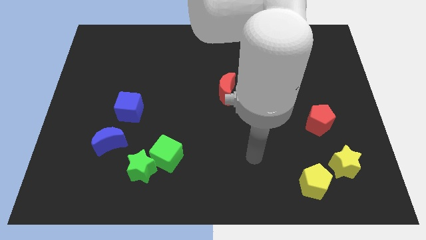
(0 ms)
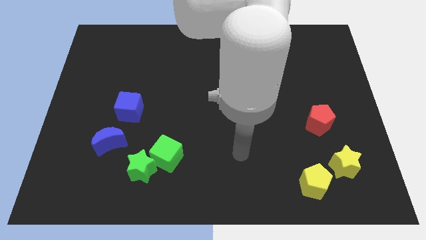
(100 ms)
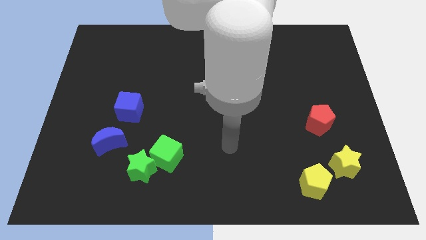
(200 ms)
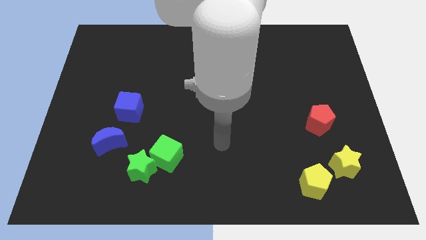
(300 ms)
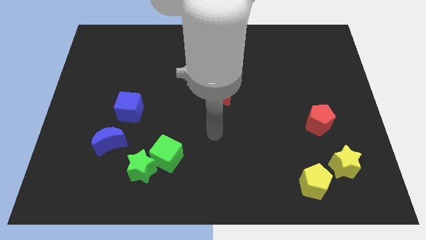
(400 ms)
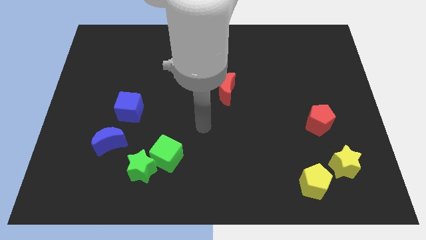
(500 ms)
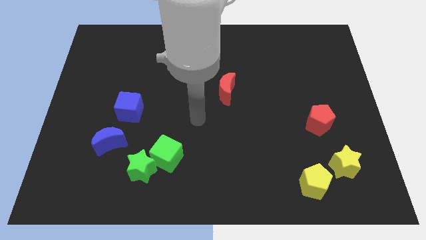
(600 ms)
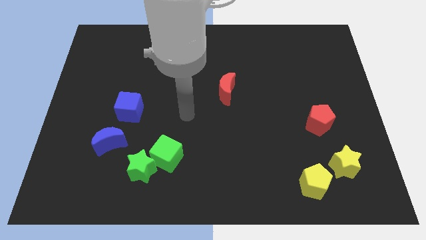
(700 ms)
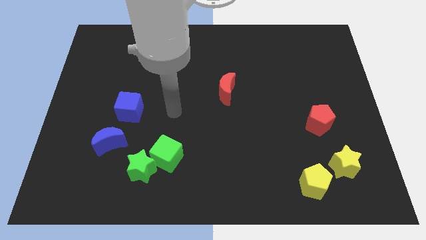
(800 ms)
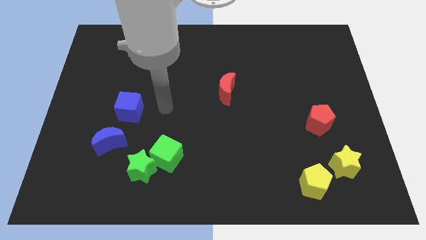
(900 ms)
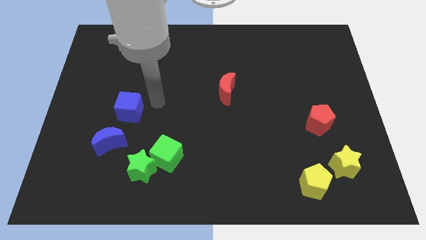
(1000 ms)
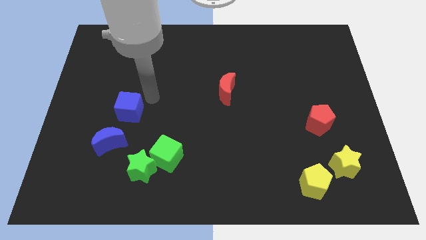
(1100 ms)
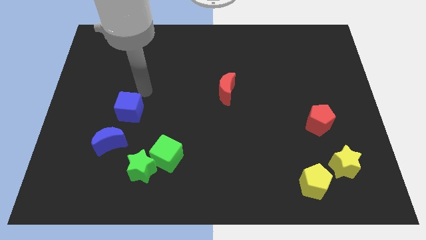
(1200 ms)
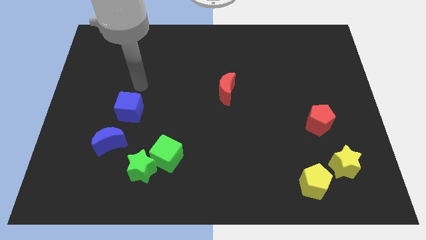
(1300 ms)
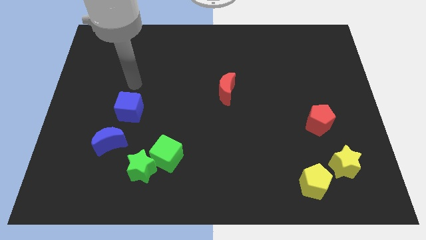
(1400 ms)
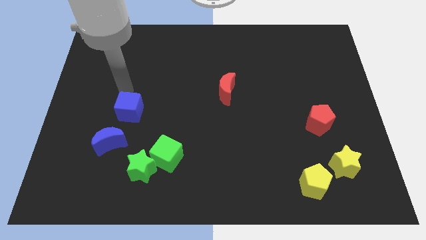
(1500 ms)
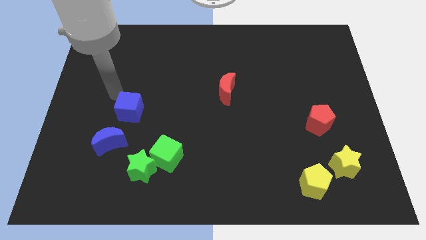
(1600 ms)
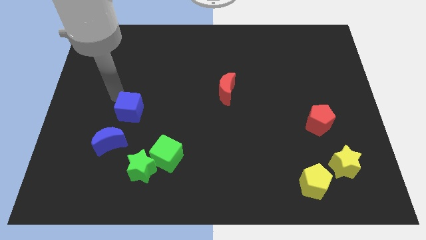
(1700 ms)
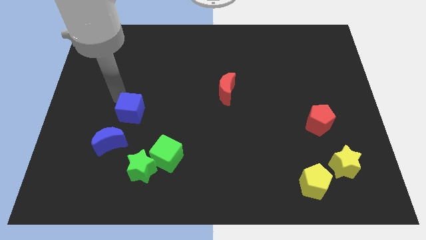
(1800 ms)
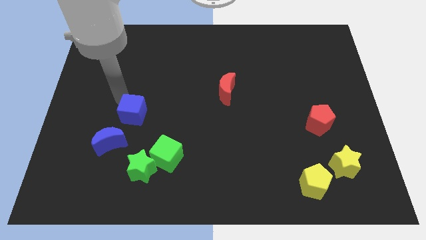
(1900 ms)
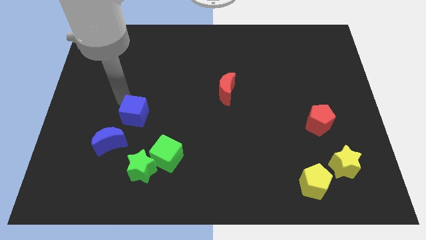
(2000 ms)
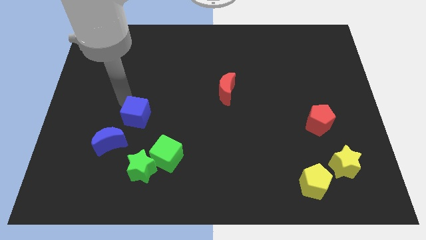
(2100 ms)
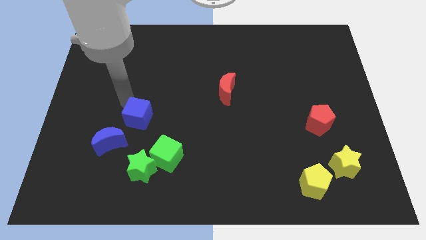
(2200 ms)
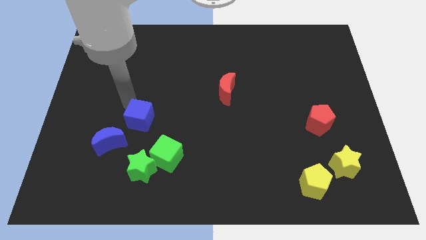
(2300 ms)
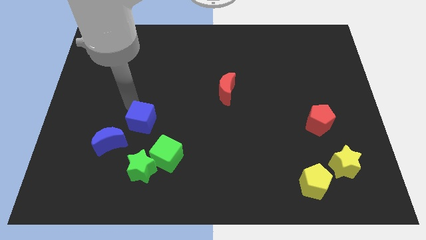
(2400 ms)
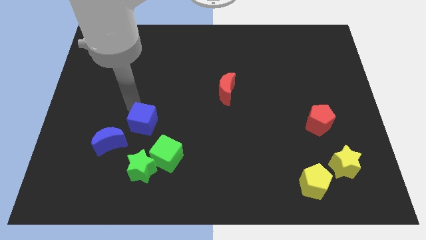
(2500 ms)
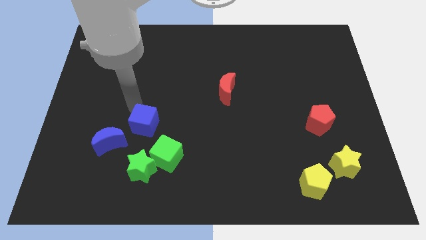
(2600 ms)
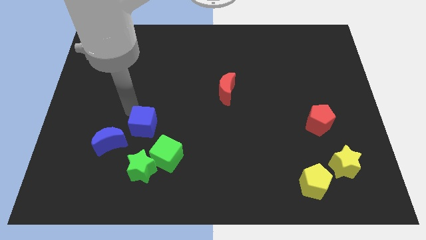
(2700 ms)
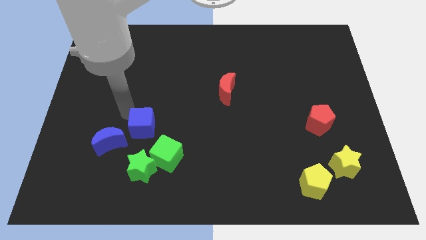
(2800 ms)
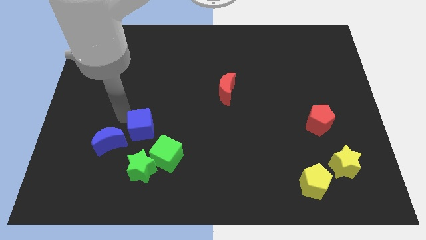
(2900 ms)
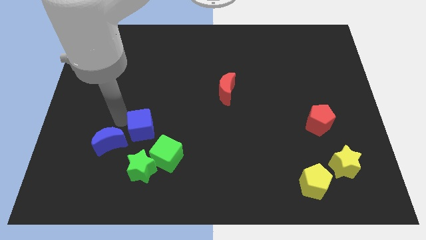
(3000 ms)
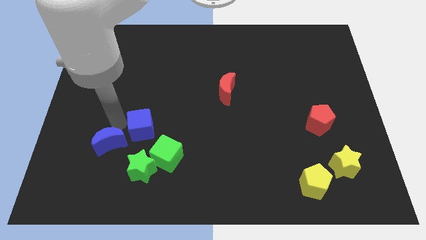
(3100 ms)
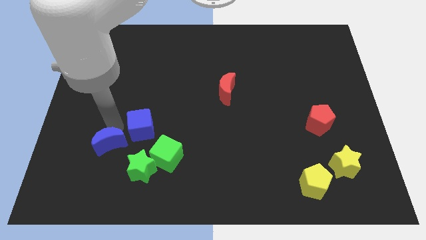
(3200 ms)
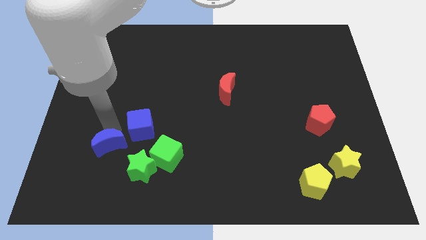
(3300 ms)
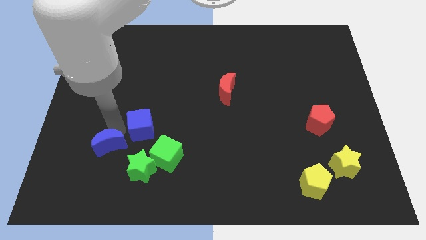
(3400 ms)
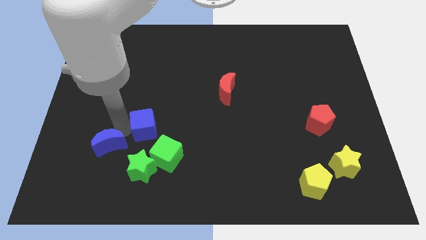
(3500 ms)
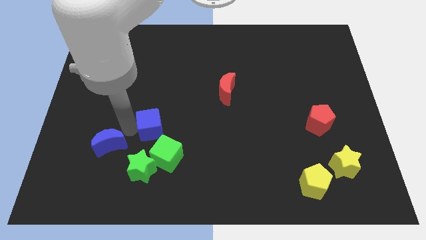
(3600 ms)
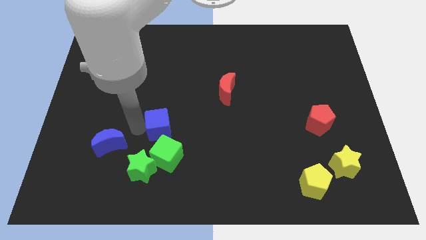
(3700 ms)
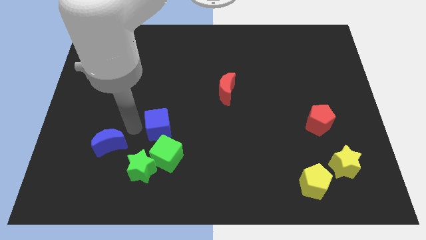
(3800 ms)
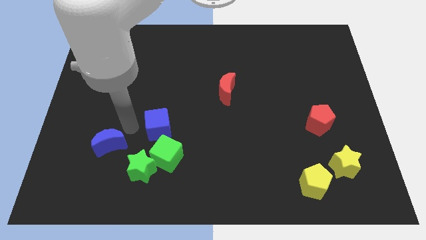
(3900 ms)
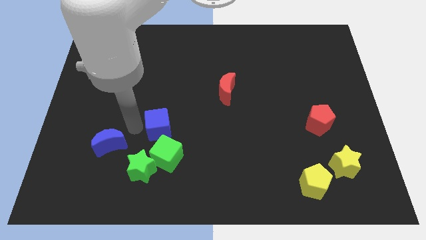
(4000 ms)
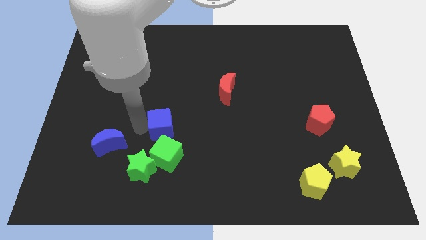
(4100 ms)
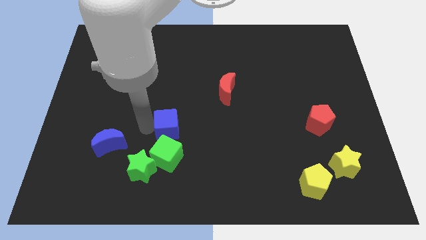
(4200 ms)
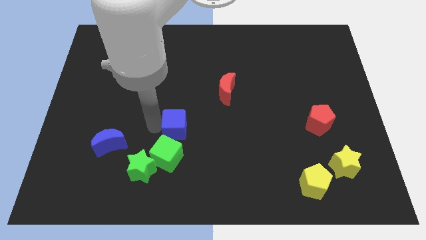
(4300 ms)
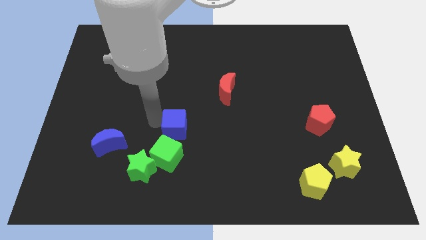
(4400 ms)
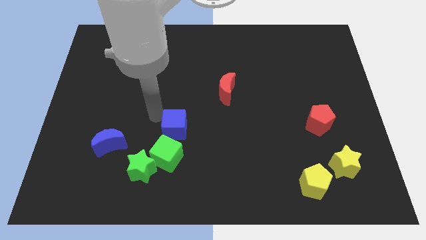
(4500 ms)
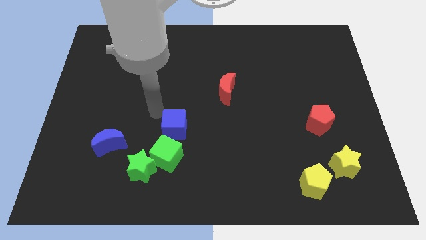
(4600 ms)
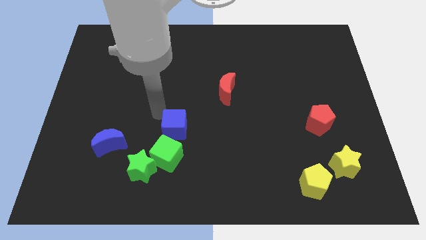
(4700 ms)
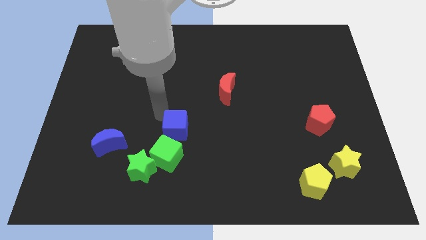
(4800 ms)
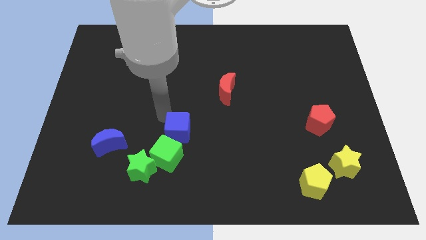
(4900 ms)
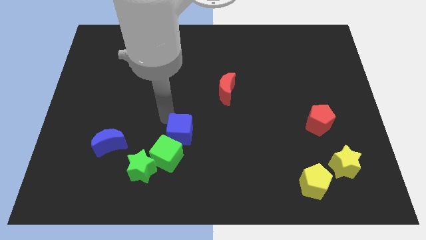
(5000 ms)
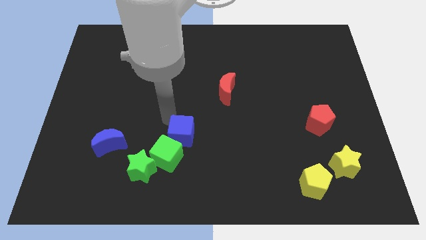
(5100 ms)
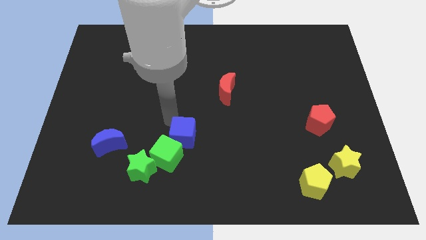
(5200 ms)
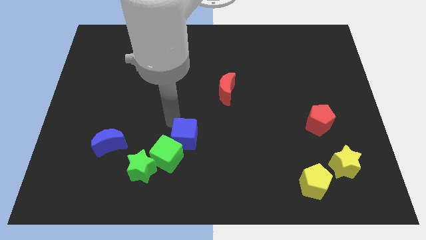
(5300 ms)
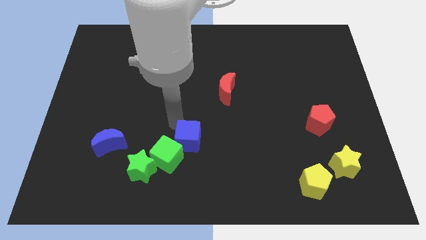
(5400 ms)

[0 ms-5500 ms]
move the blue cube to the right side of the green cube

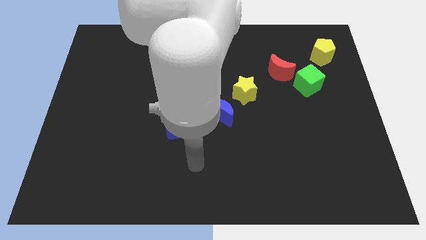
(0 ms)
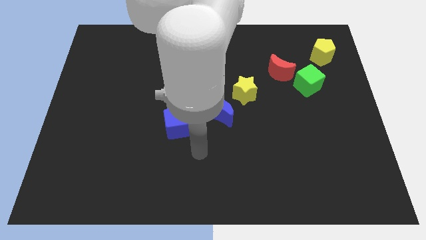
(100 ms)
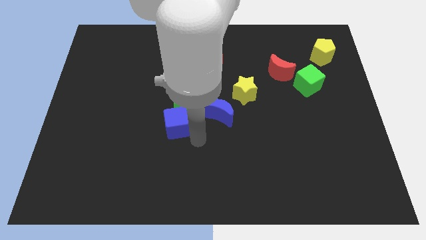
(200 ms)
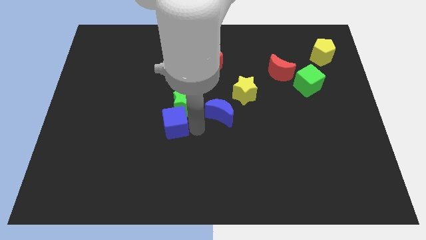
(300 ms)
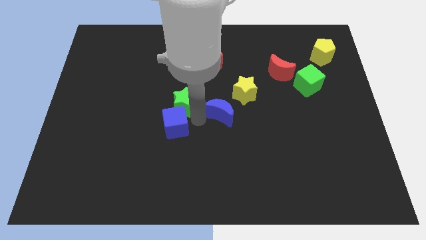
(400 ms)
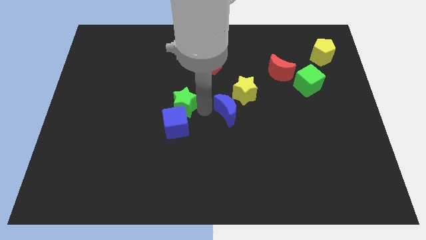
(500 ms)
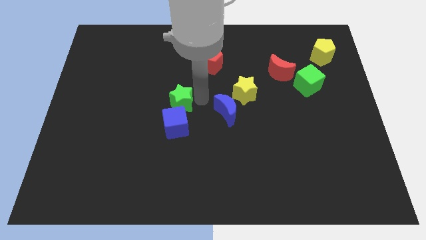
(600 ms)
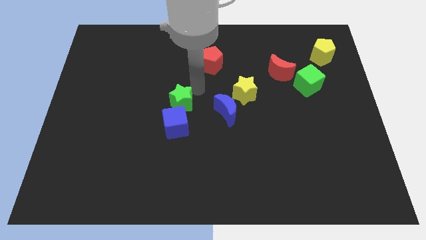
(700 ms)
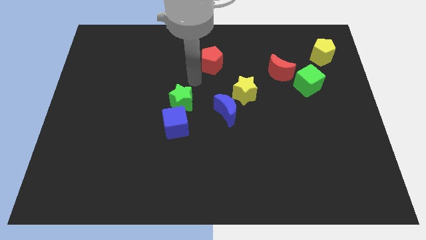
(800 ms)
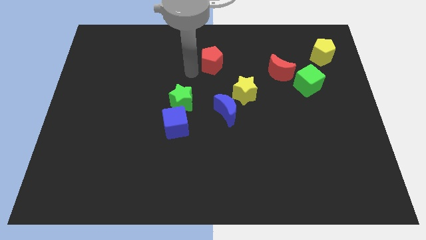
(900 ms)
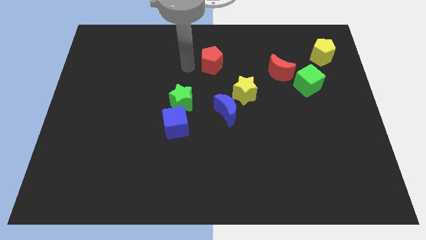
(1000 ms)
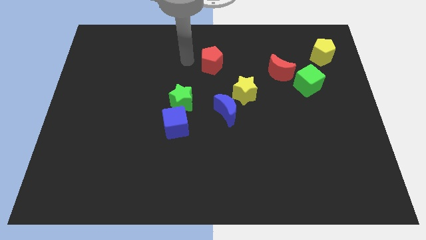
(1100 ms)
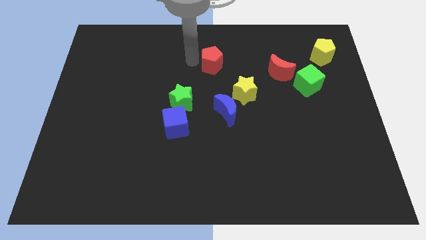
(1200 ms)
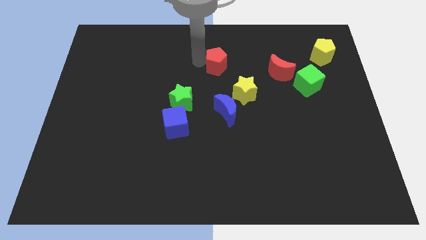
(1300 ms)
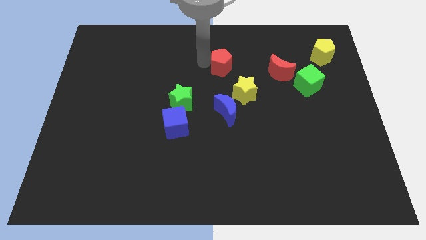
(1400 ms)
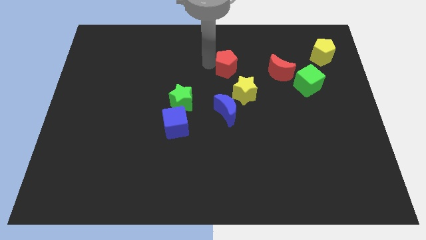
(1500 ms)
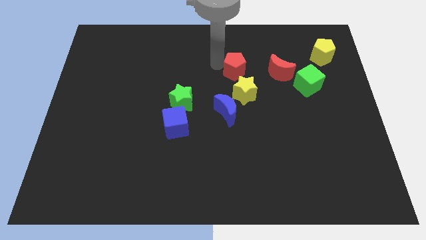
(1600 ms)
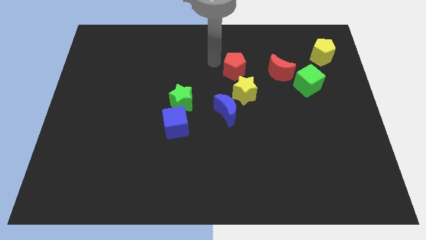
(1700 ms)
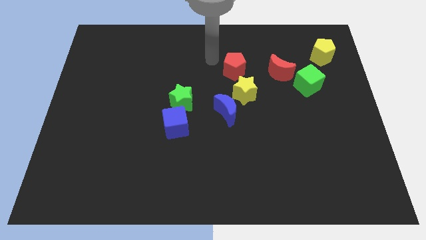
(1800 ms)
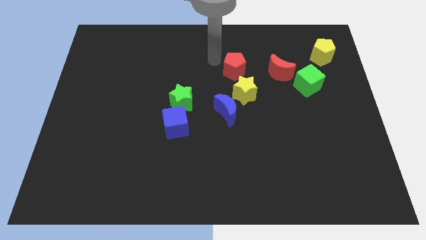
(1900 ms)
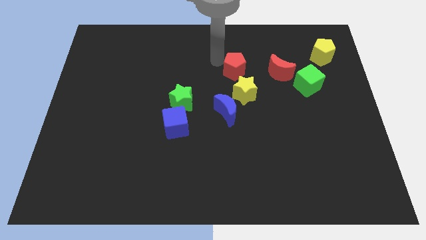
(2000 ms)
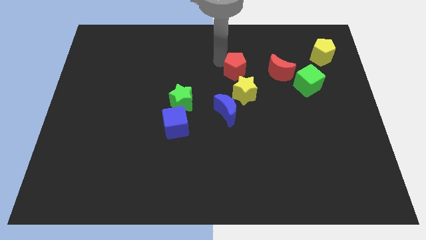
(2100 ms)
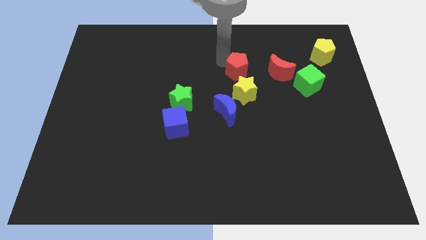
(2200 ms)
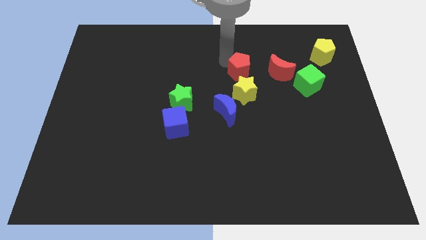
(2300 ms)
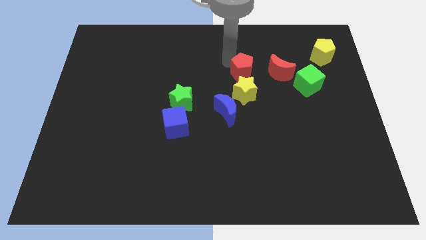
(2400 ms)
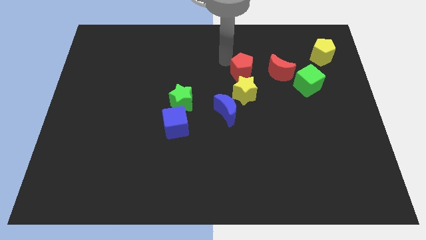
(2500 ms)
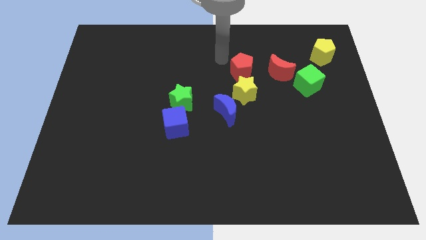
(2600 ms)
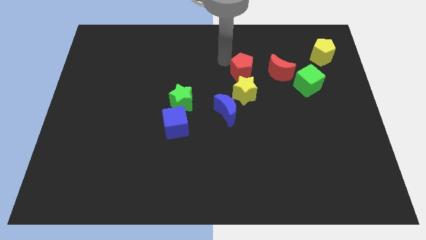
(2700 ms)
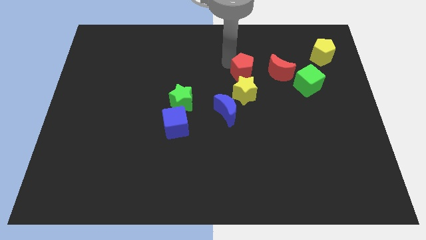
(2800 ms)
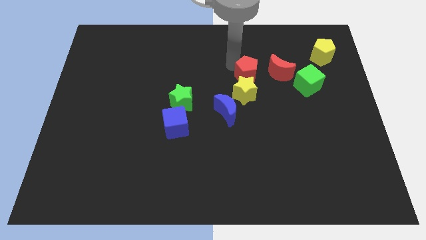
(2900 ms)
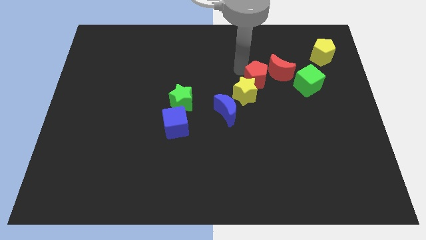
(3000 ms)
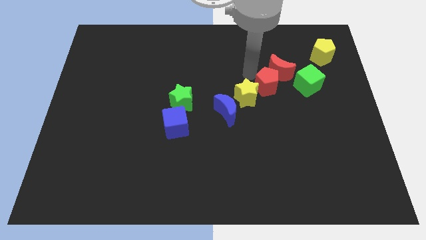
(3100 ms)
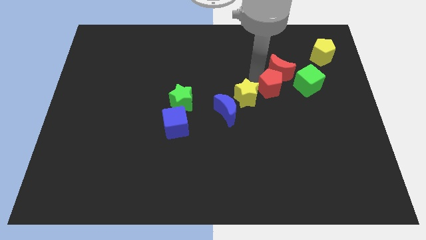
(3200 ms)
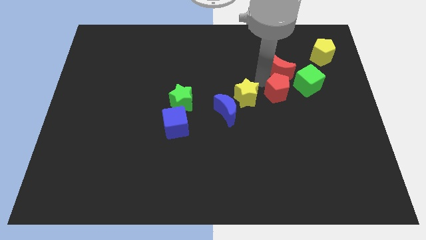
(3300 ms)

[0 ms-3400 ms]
slide the red pentagon to the bottom left side of the green cube
